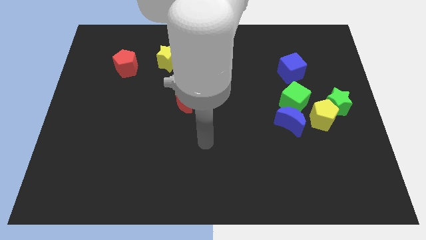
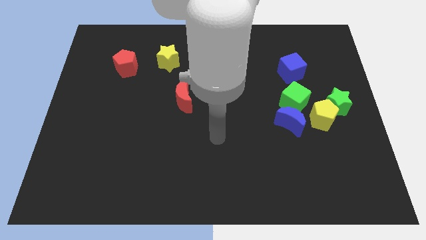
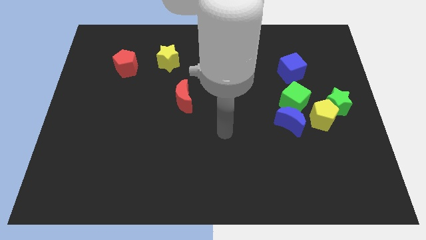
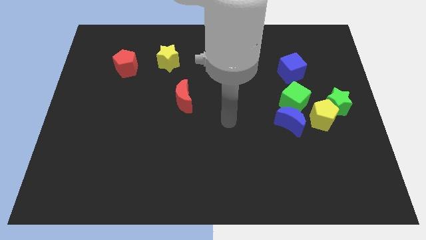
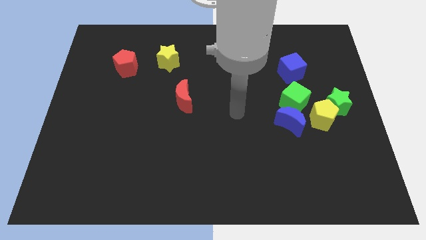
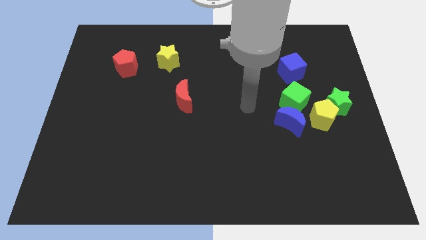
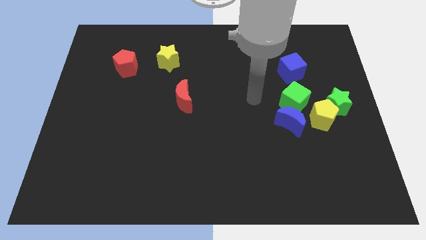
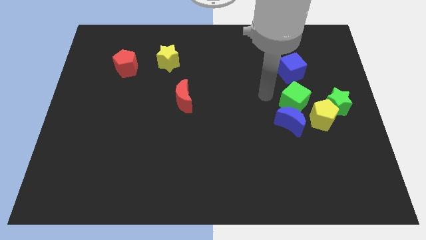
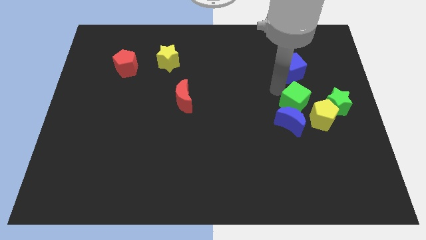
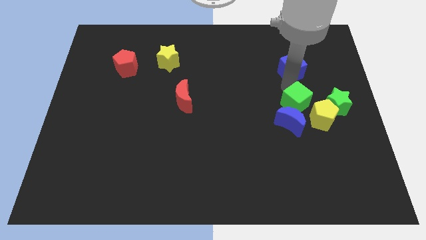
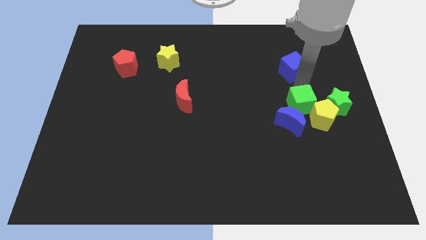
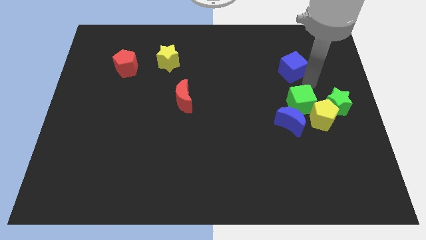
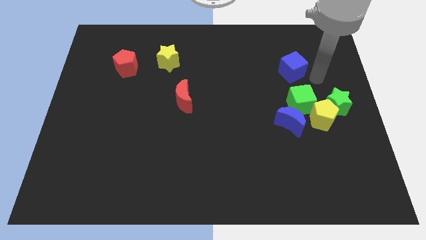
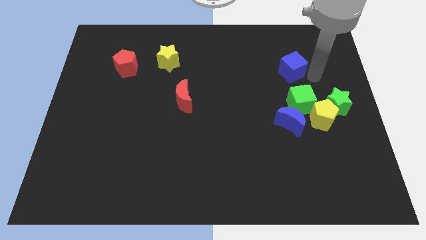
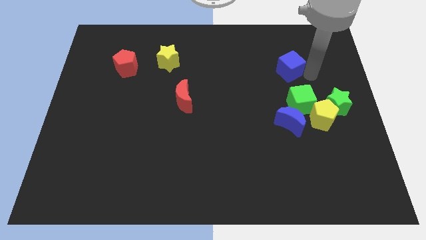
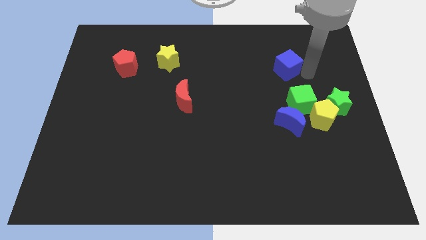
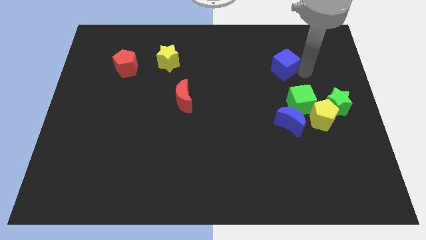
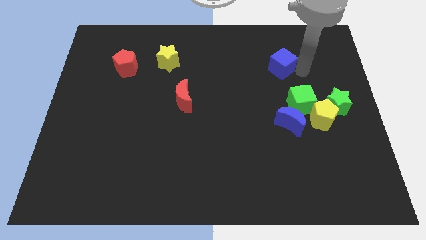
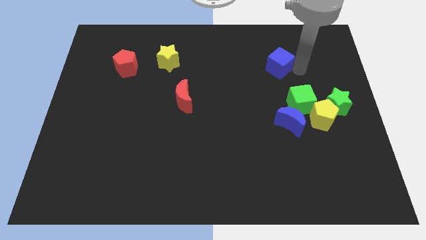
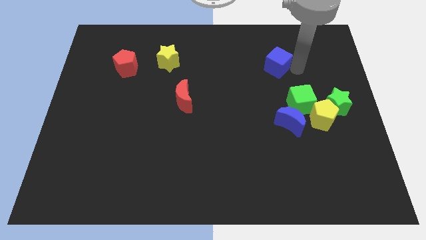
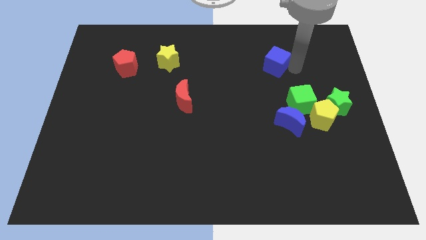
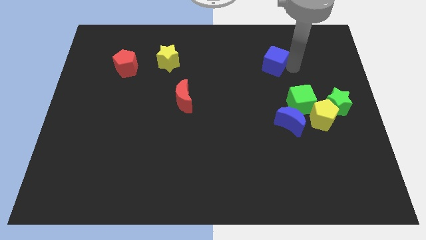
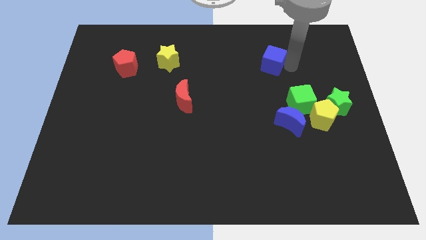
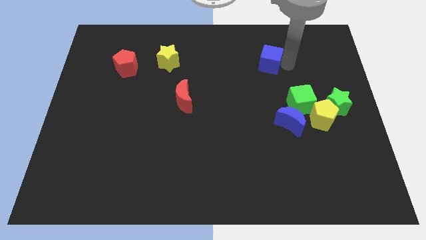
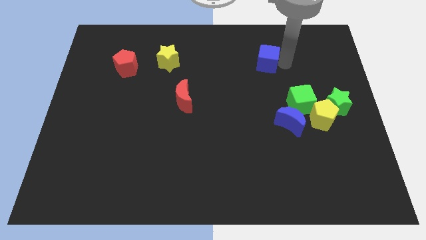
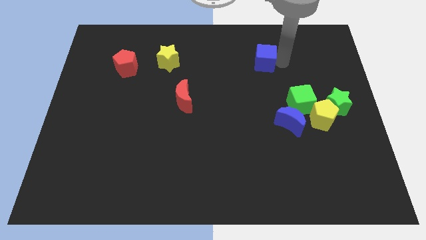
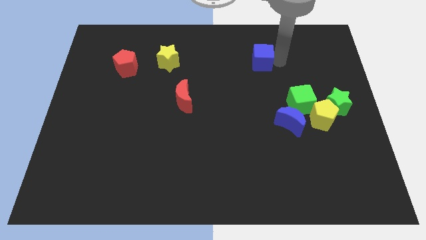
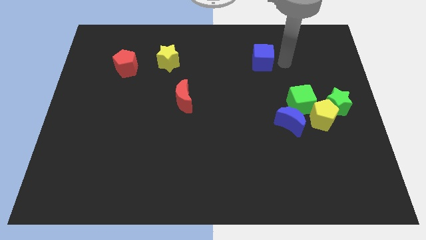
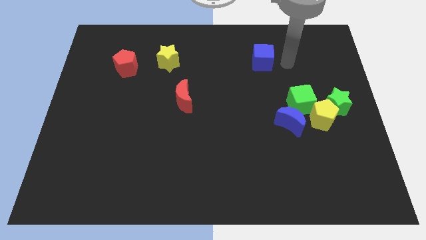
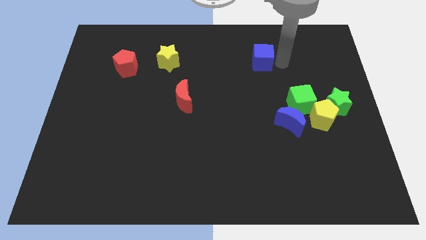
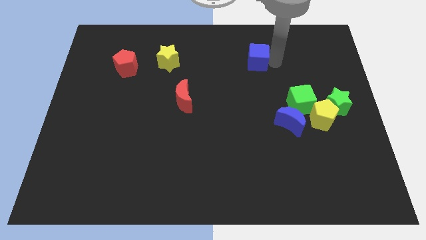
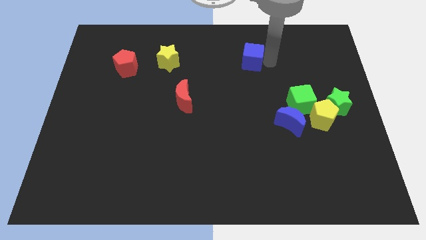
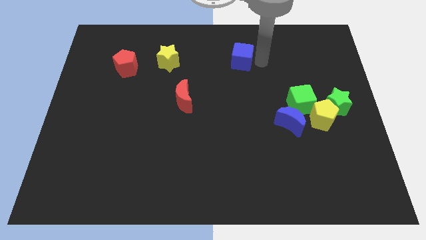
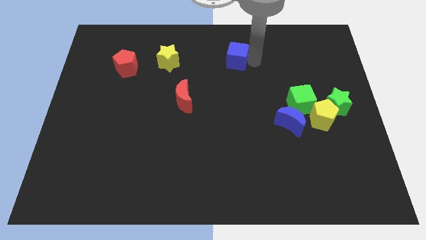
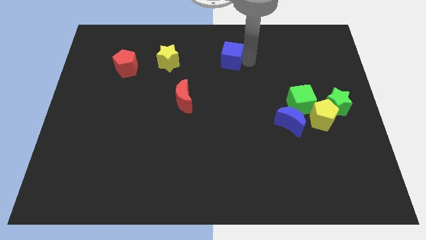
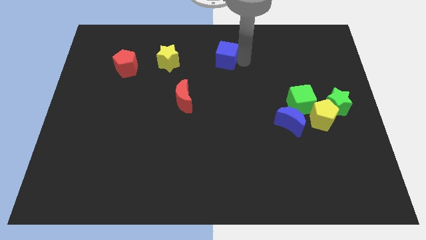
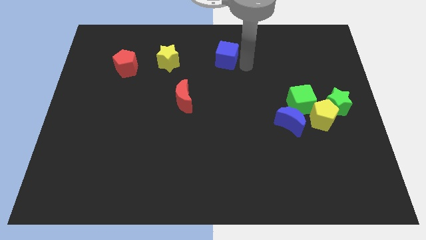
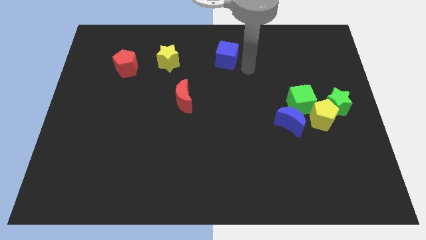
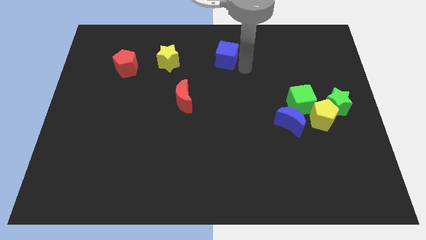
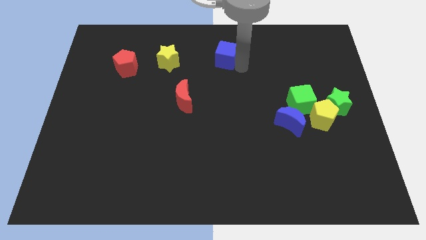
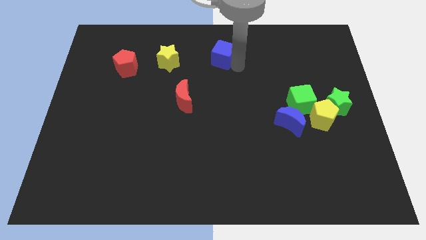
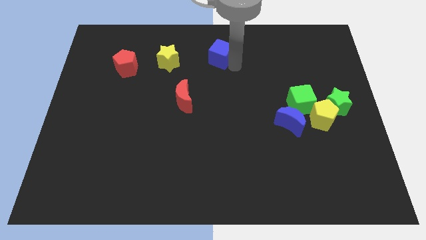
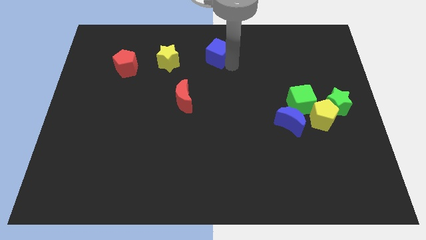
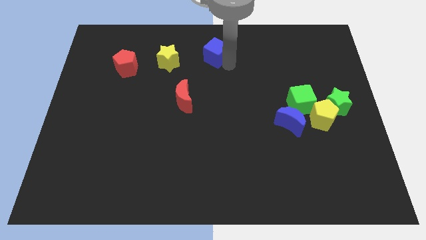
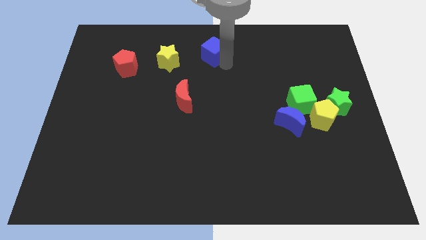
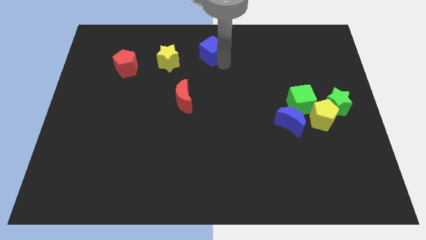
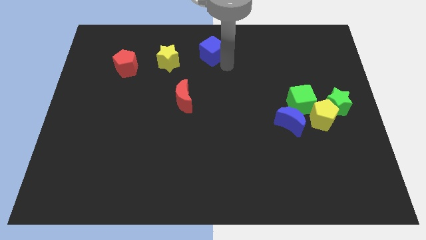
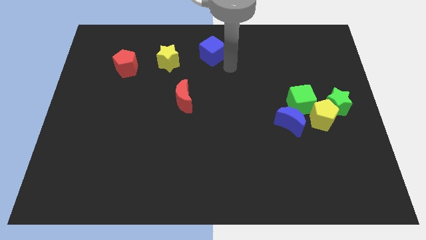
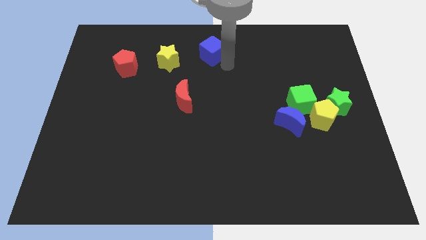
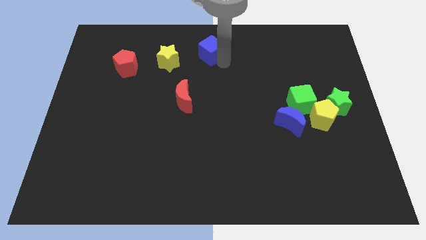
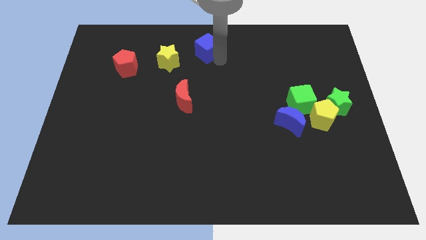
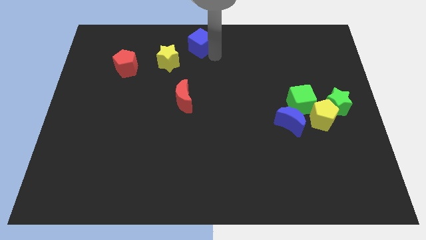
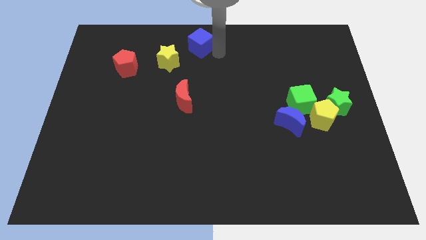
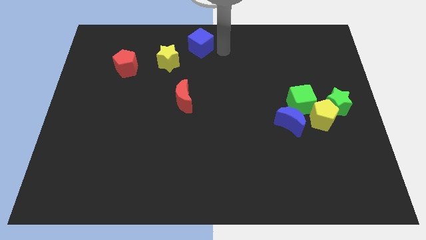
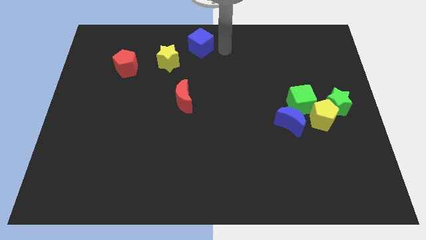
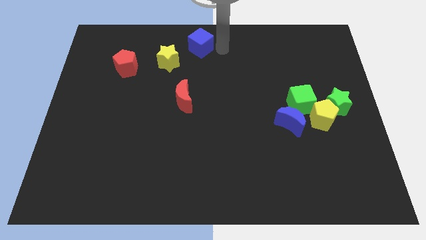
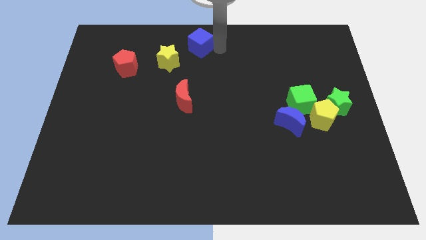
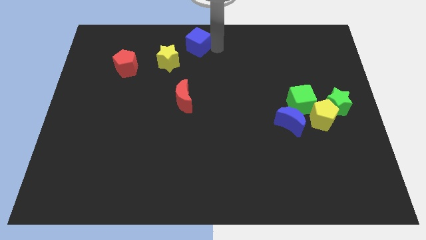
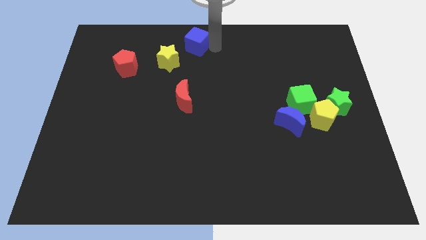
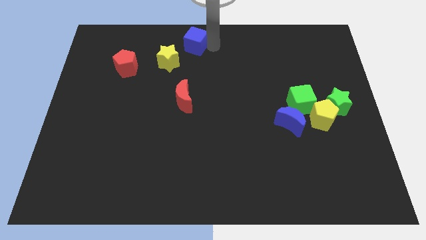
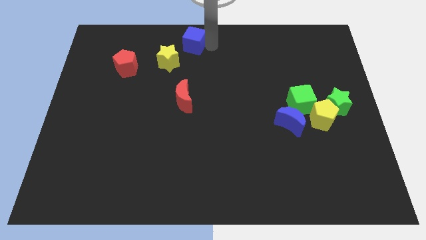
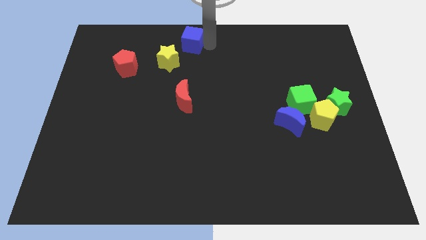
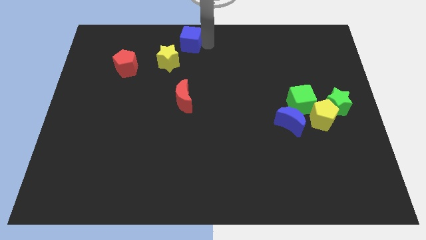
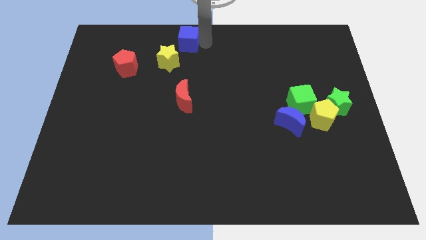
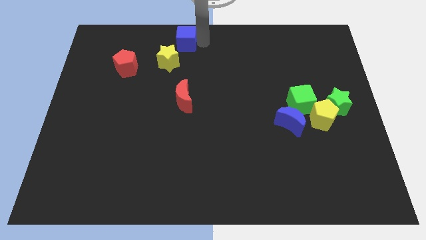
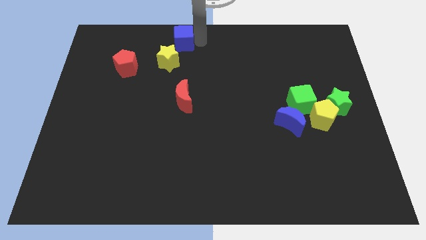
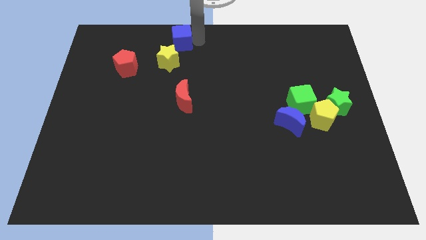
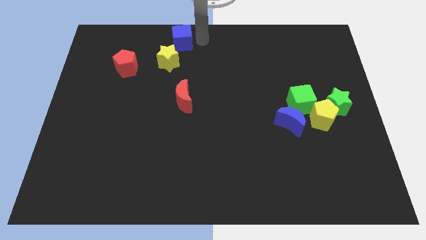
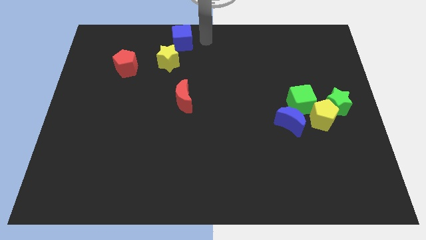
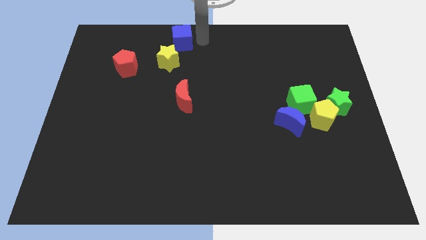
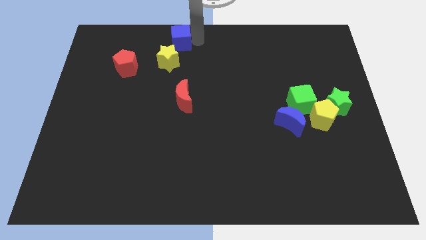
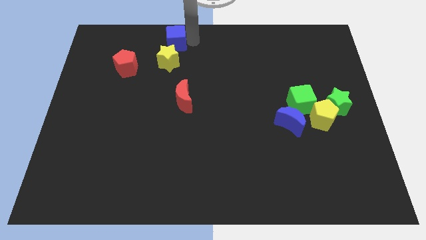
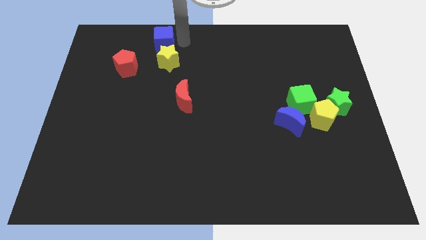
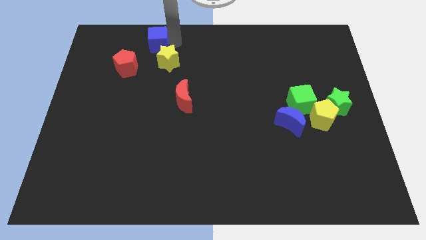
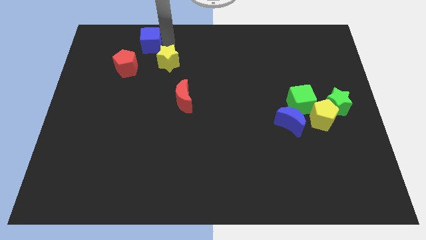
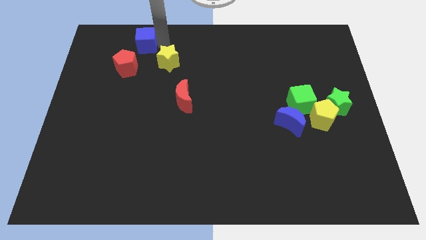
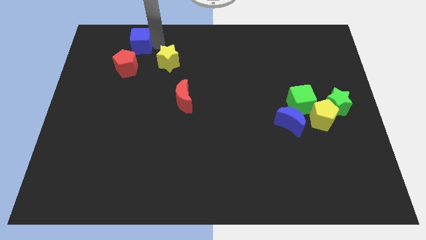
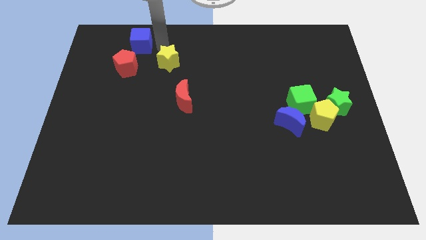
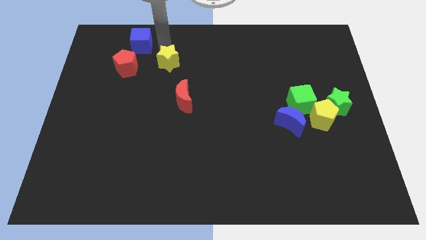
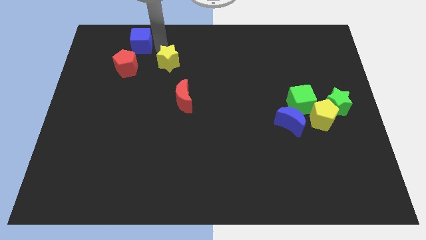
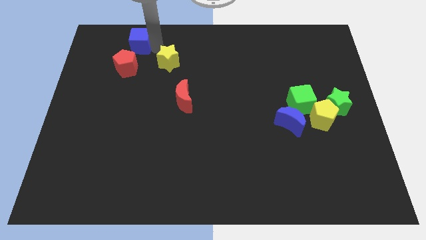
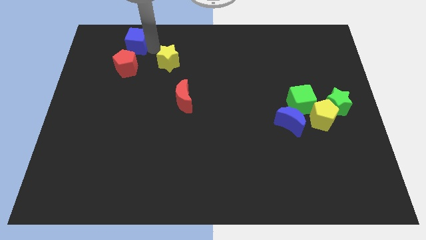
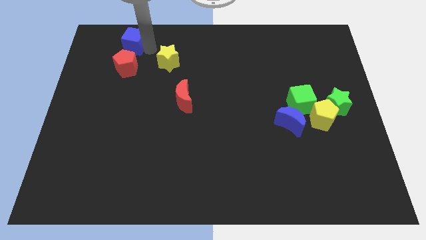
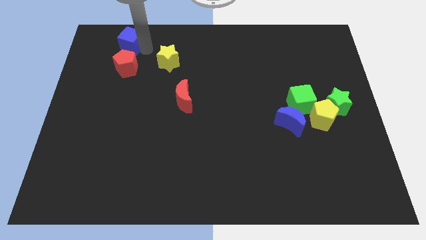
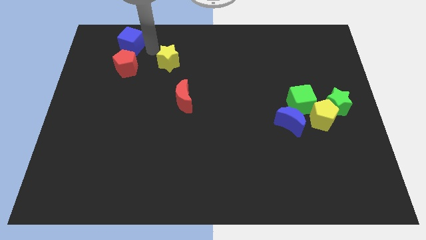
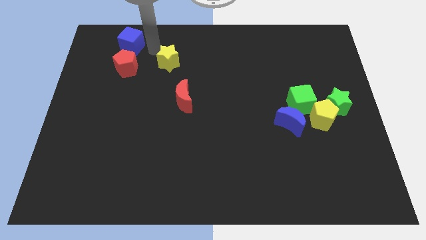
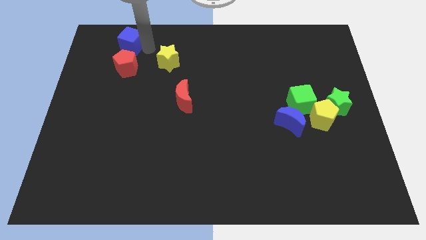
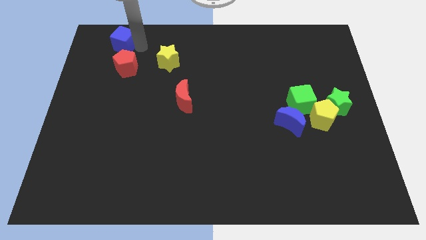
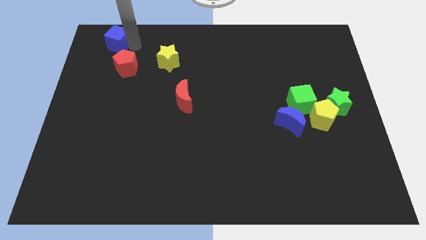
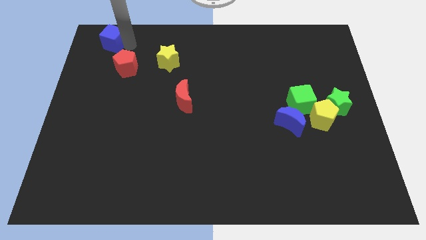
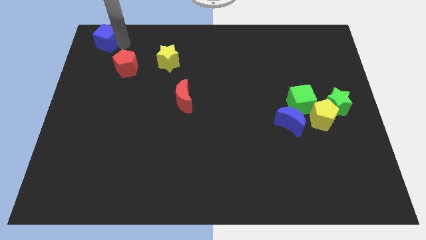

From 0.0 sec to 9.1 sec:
slide the blue cube to the top left
